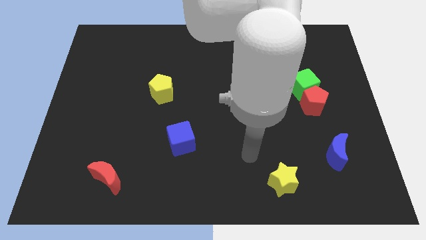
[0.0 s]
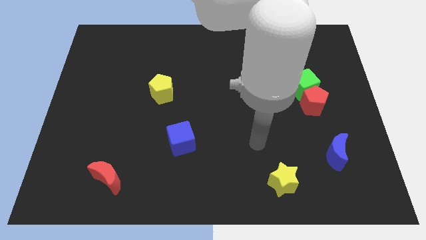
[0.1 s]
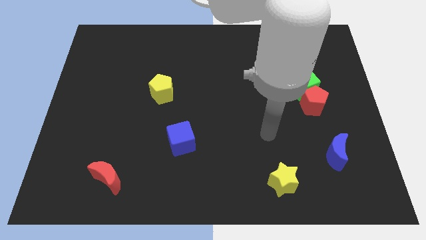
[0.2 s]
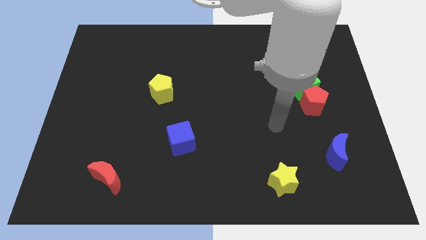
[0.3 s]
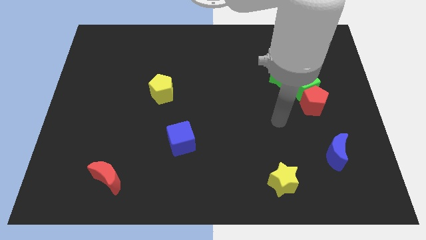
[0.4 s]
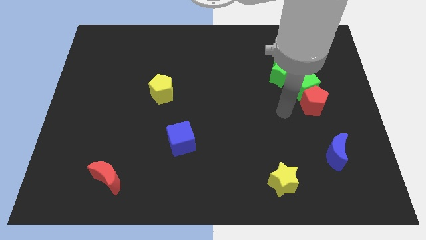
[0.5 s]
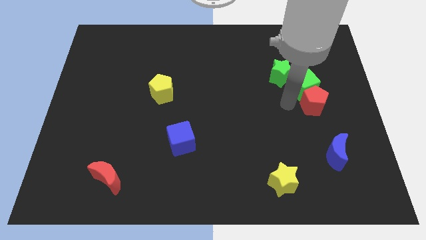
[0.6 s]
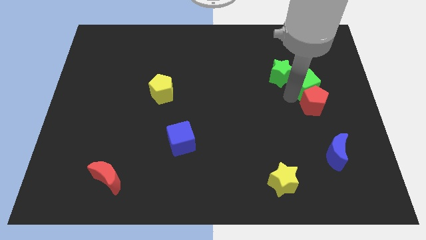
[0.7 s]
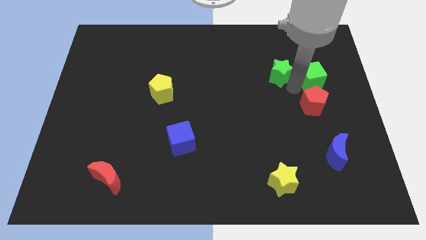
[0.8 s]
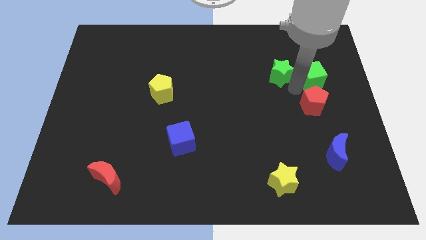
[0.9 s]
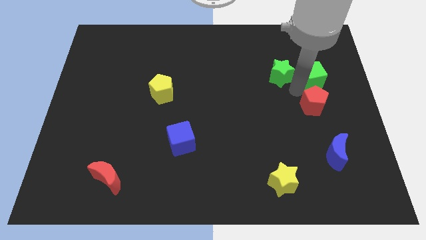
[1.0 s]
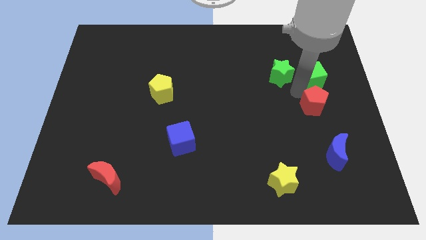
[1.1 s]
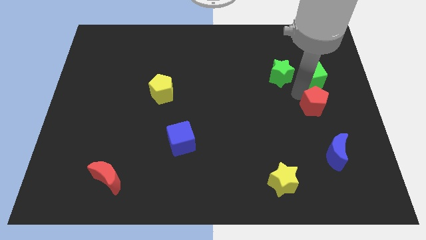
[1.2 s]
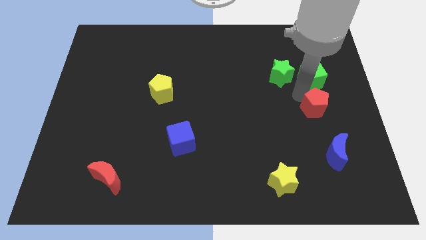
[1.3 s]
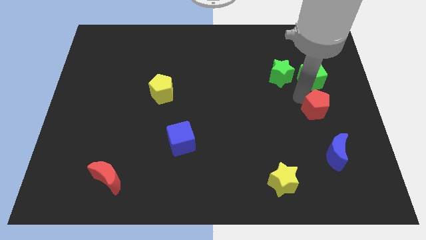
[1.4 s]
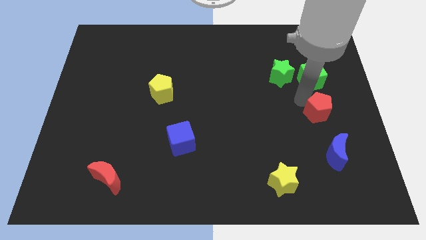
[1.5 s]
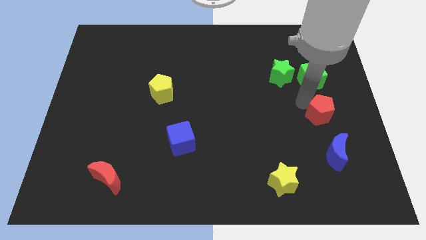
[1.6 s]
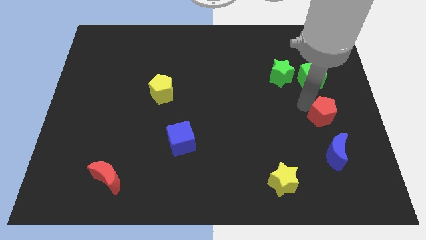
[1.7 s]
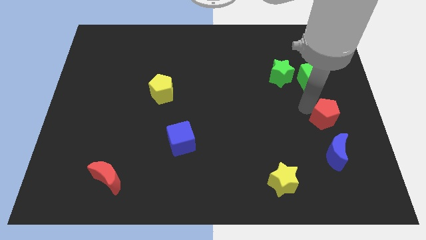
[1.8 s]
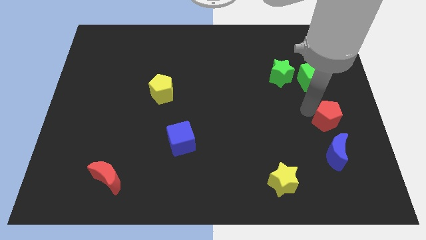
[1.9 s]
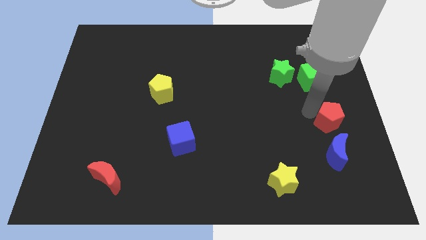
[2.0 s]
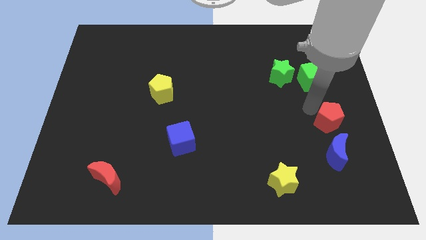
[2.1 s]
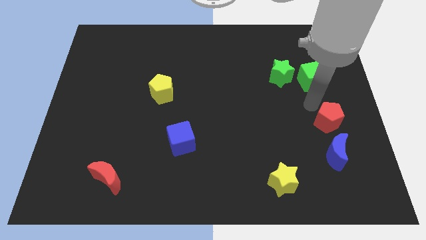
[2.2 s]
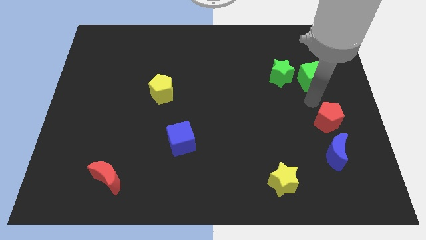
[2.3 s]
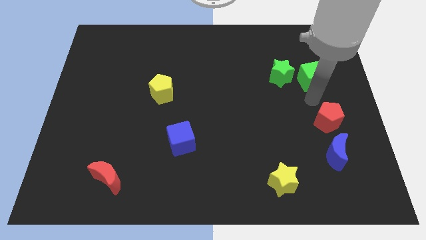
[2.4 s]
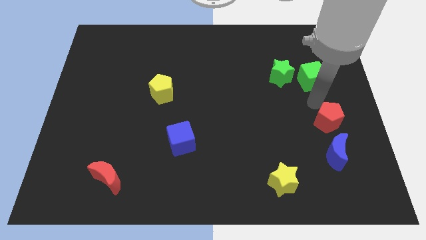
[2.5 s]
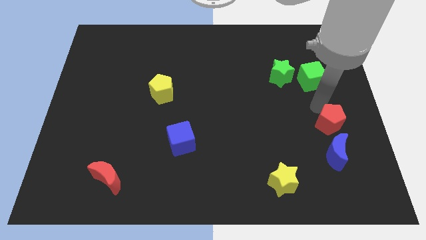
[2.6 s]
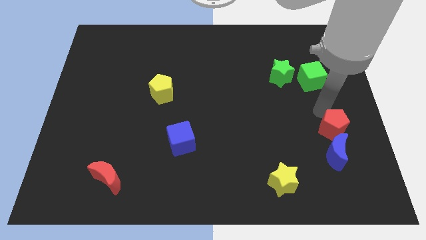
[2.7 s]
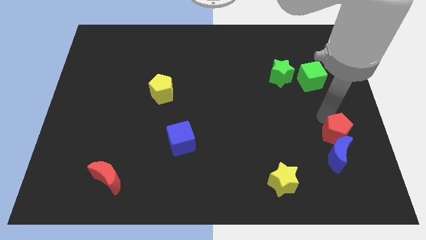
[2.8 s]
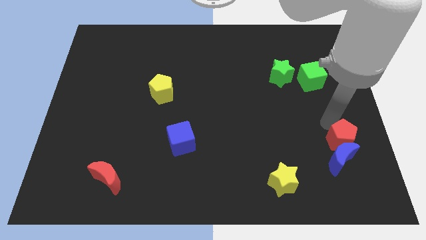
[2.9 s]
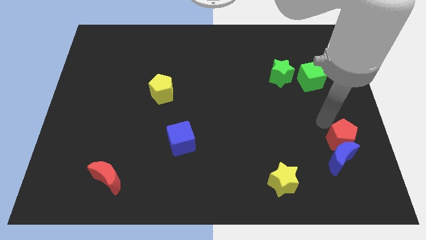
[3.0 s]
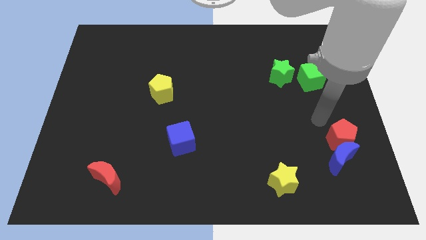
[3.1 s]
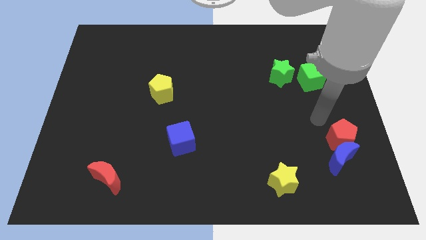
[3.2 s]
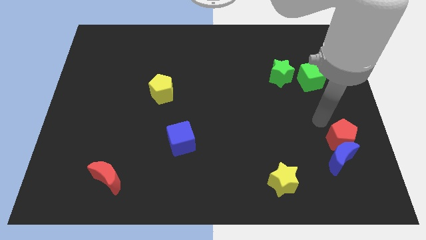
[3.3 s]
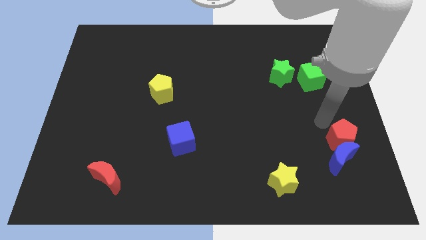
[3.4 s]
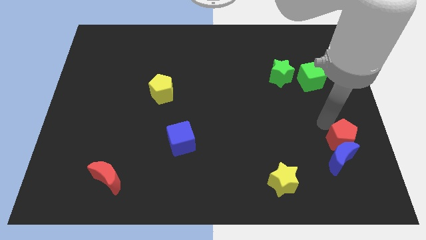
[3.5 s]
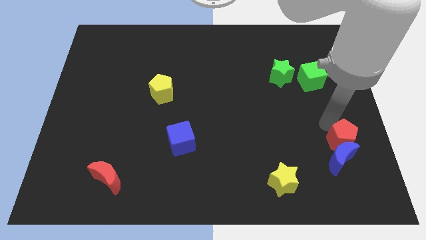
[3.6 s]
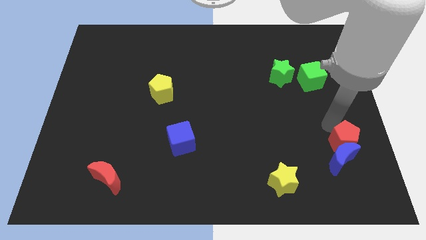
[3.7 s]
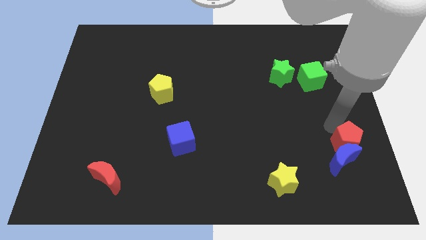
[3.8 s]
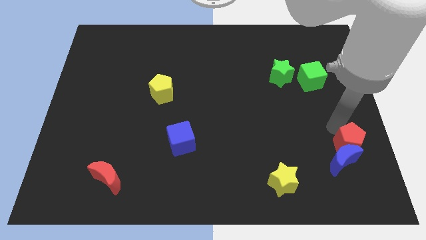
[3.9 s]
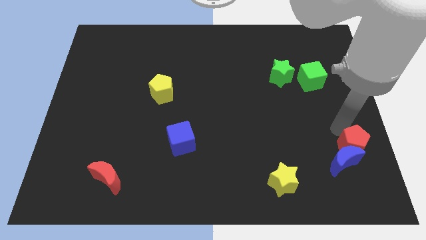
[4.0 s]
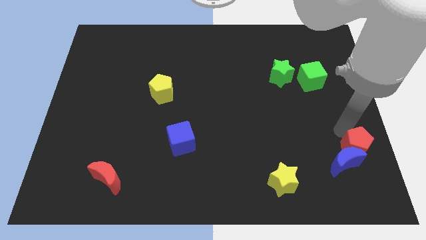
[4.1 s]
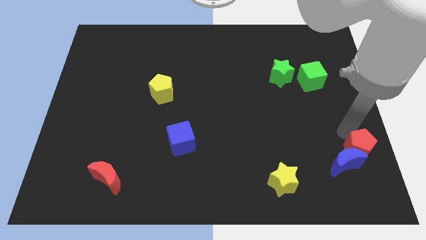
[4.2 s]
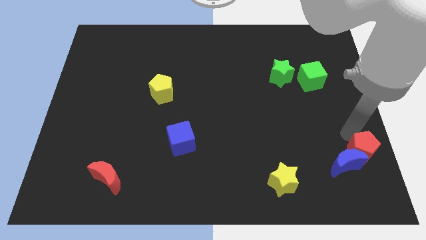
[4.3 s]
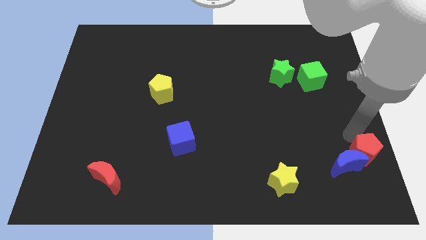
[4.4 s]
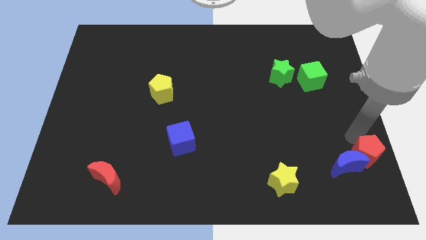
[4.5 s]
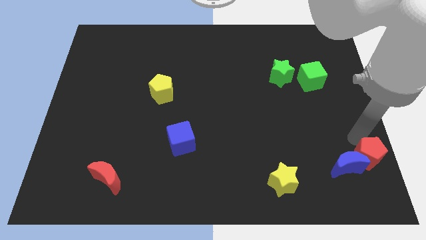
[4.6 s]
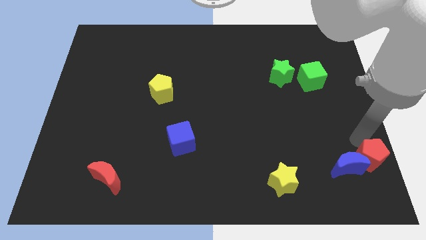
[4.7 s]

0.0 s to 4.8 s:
slide the red pentagon to the bottom right corner

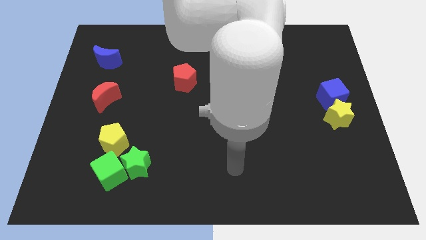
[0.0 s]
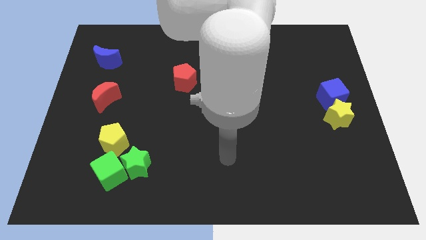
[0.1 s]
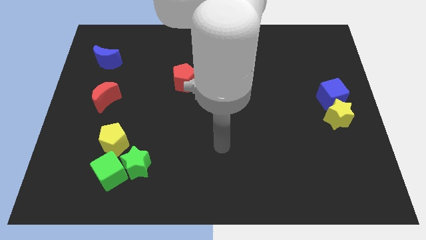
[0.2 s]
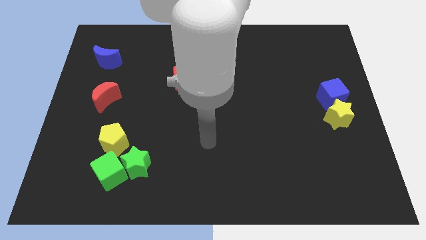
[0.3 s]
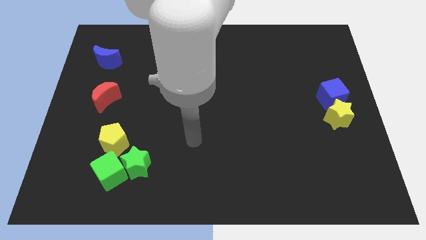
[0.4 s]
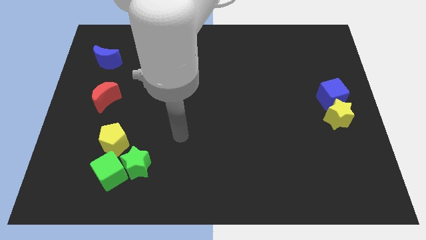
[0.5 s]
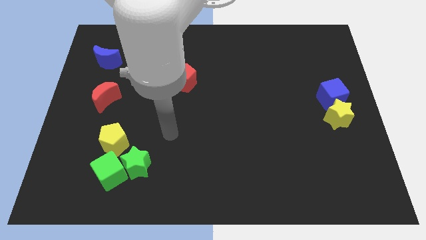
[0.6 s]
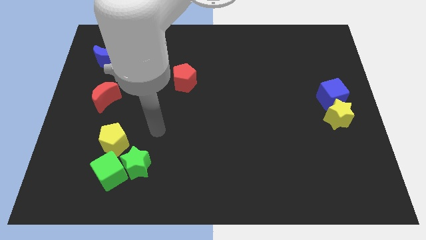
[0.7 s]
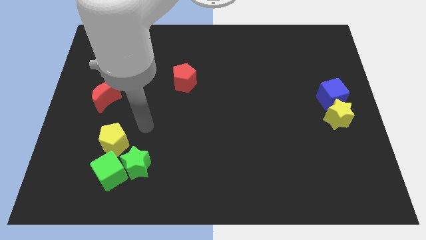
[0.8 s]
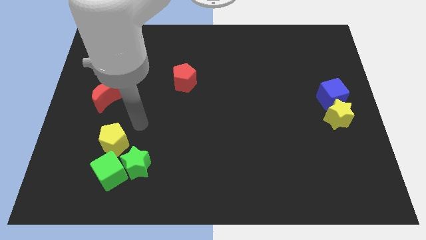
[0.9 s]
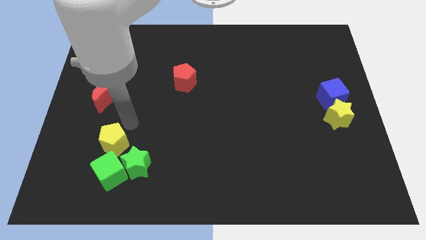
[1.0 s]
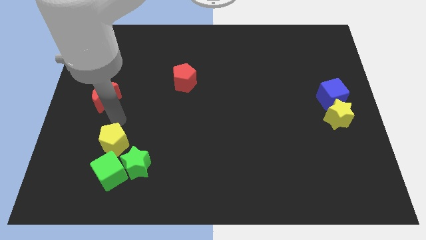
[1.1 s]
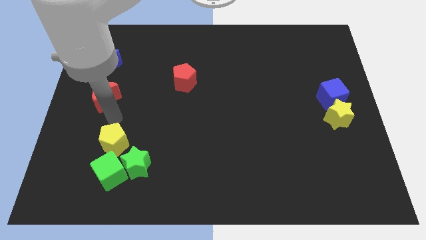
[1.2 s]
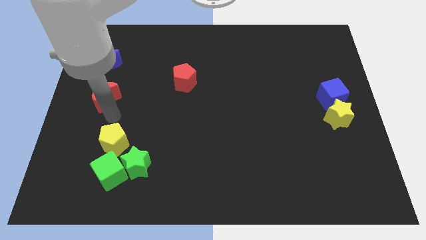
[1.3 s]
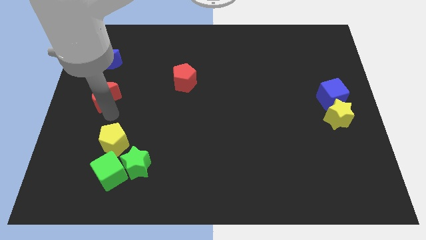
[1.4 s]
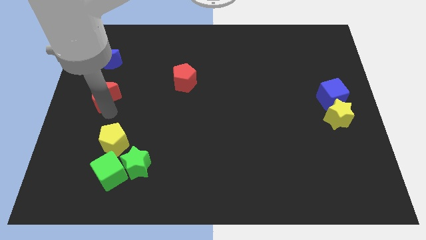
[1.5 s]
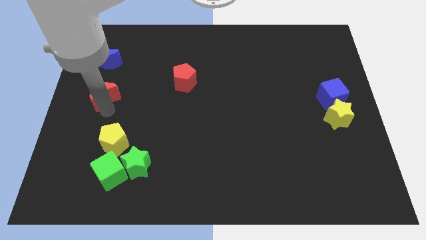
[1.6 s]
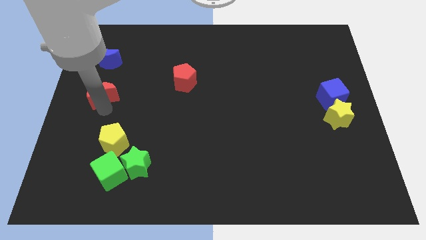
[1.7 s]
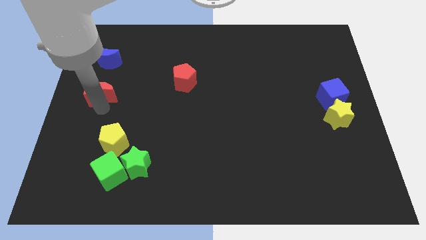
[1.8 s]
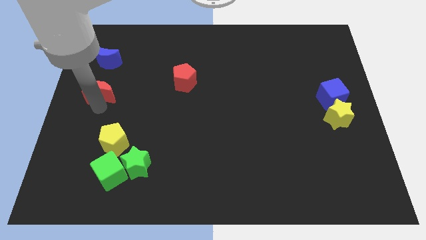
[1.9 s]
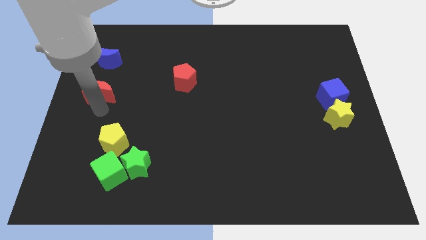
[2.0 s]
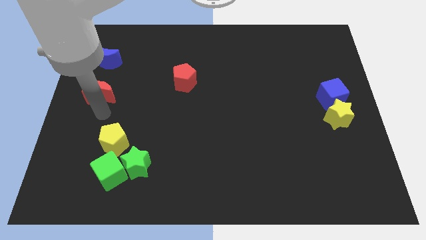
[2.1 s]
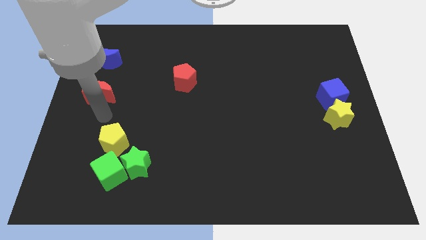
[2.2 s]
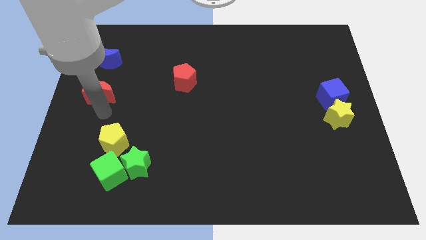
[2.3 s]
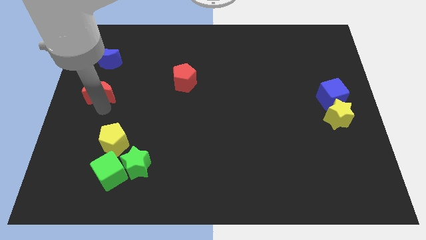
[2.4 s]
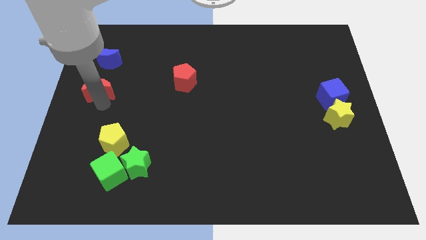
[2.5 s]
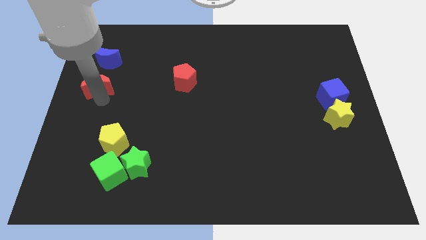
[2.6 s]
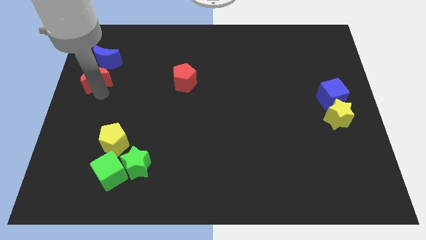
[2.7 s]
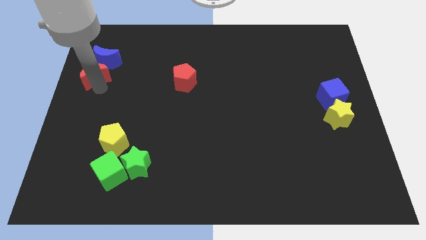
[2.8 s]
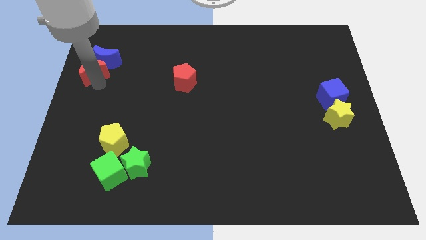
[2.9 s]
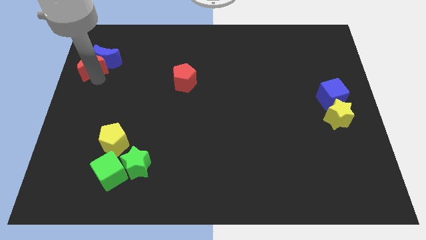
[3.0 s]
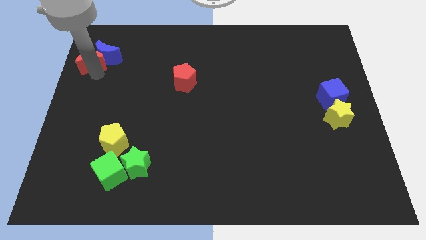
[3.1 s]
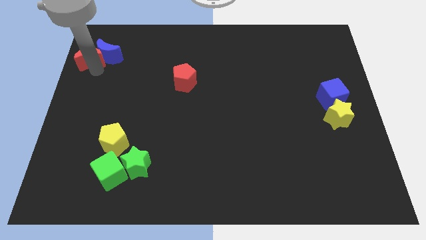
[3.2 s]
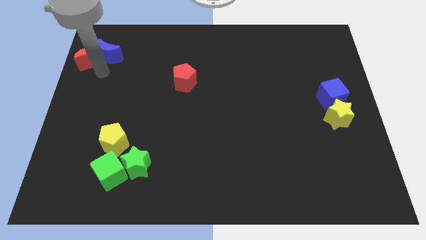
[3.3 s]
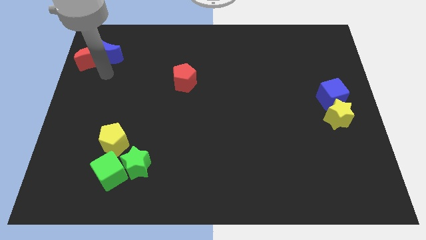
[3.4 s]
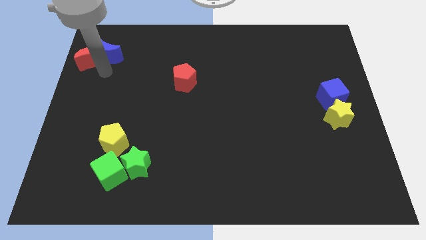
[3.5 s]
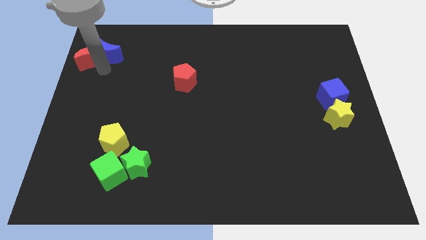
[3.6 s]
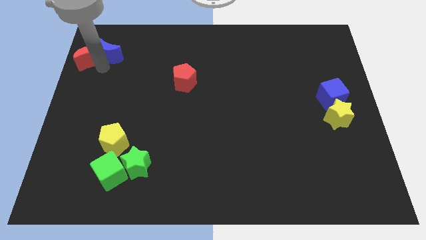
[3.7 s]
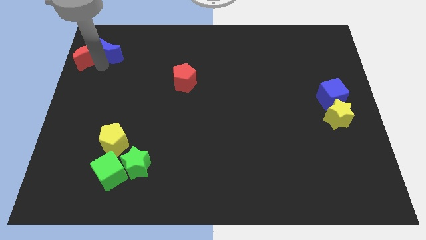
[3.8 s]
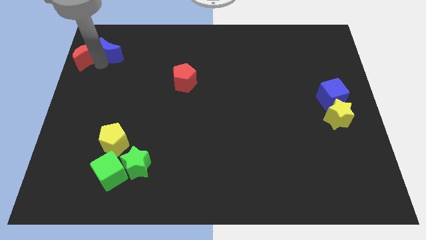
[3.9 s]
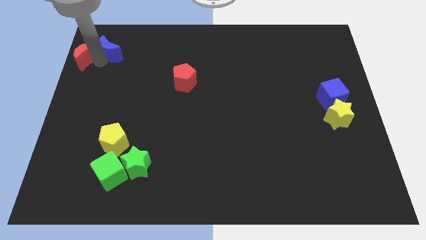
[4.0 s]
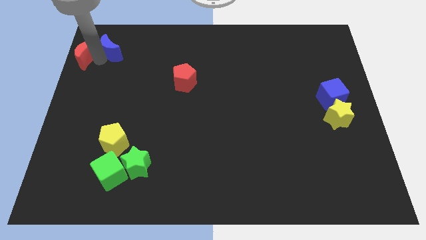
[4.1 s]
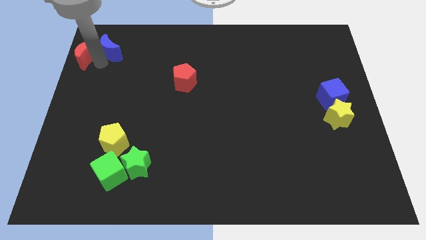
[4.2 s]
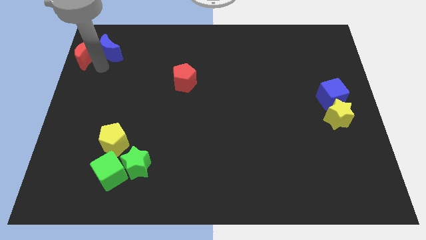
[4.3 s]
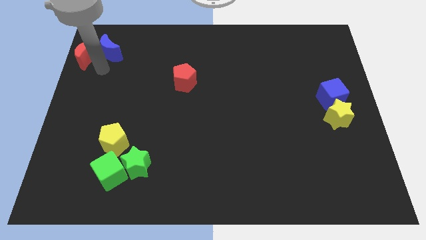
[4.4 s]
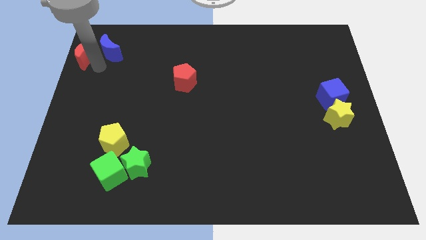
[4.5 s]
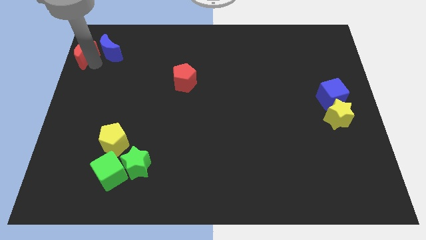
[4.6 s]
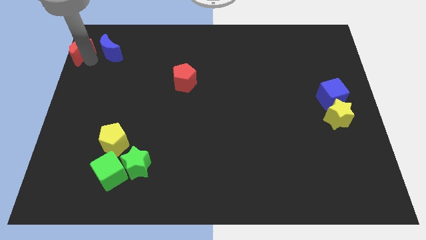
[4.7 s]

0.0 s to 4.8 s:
put the red moon to the top left corner
